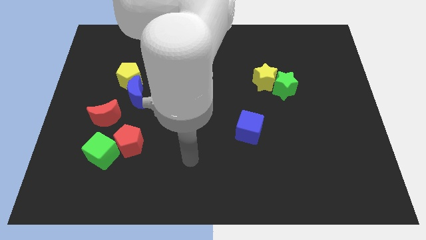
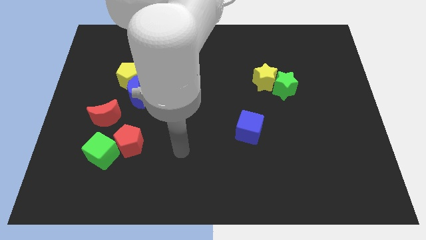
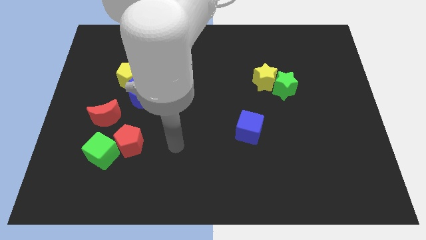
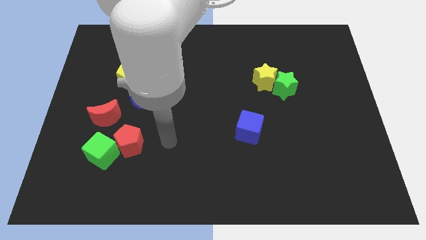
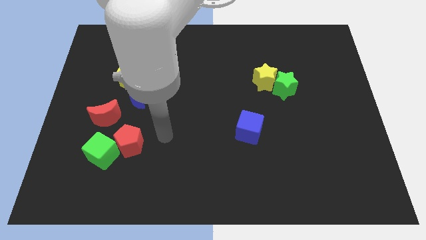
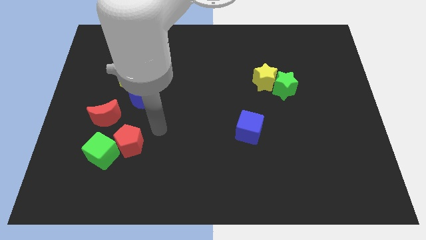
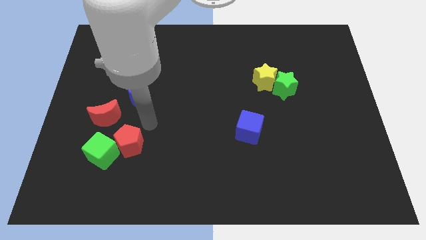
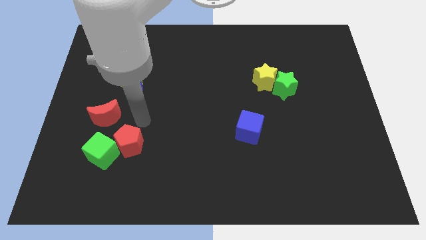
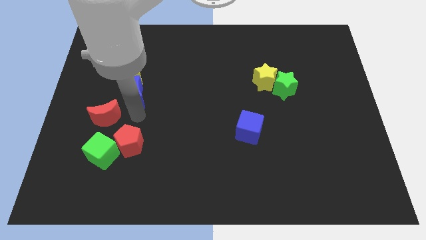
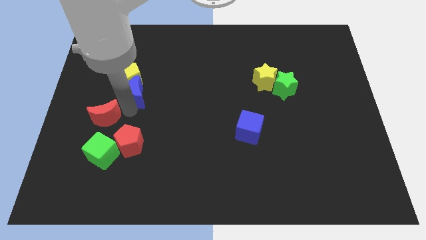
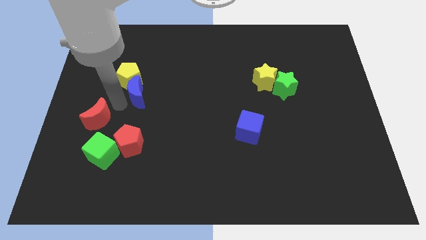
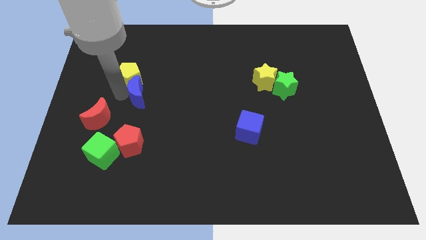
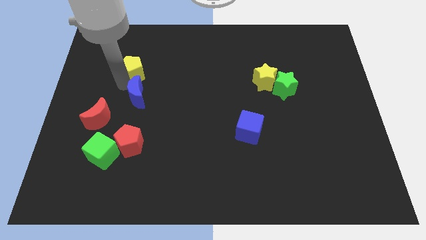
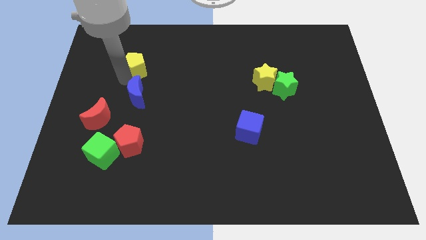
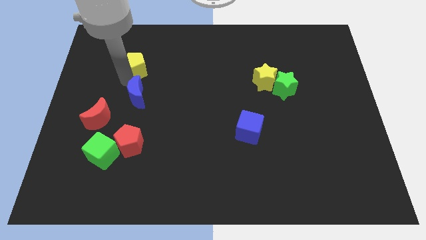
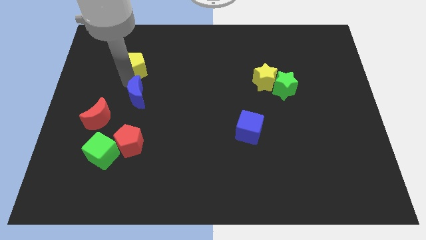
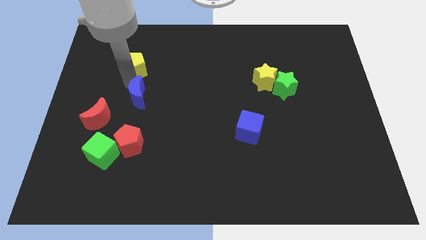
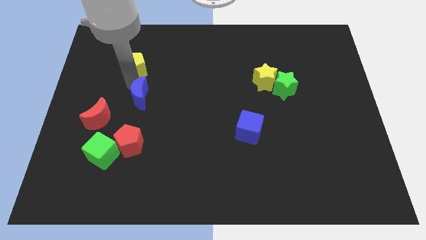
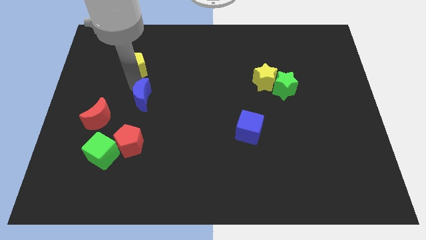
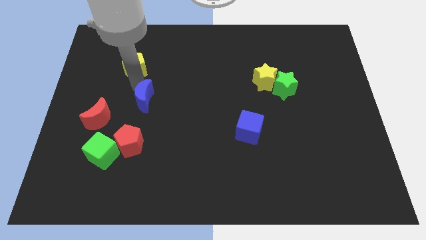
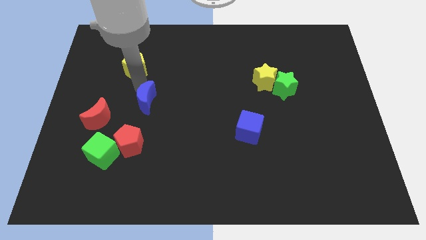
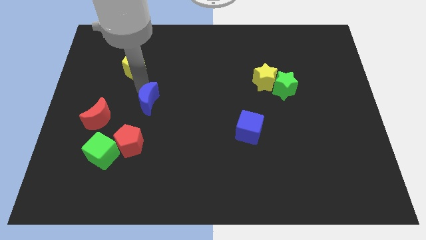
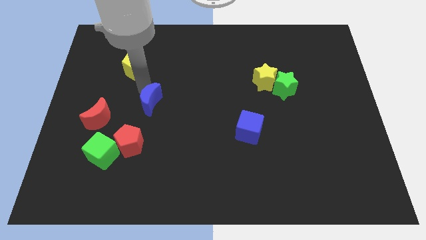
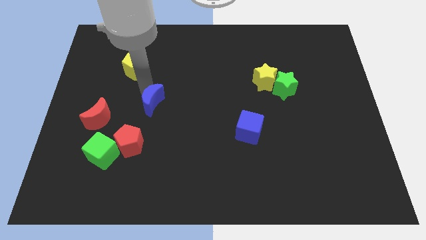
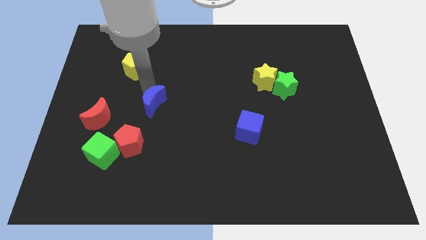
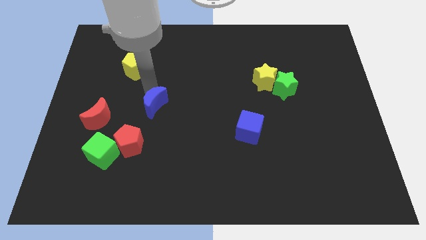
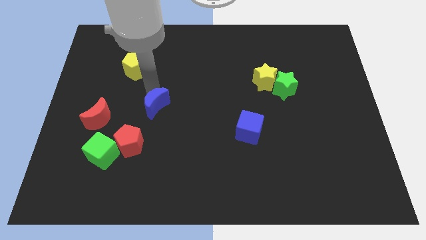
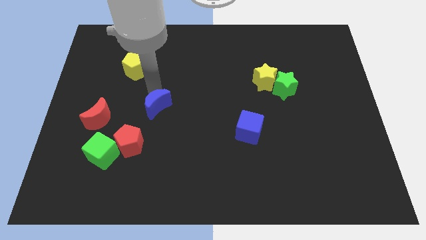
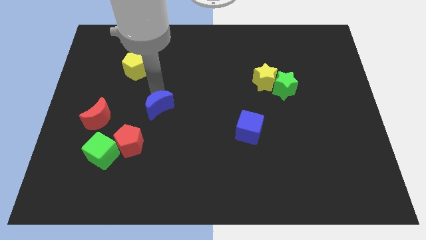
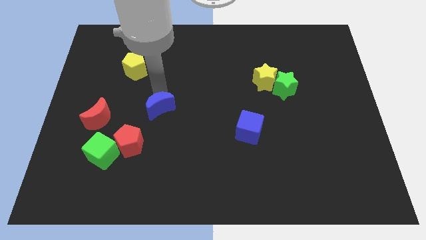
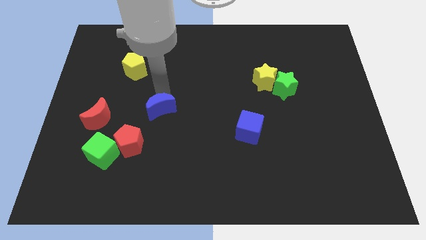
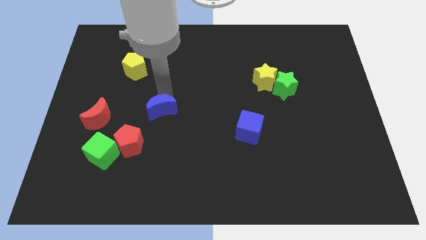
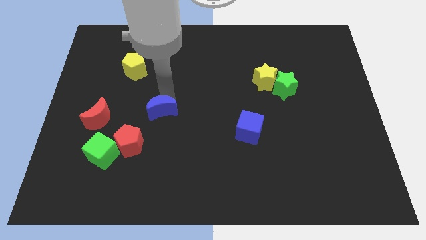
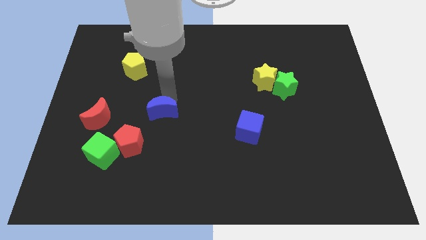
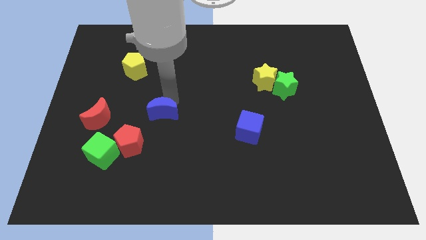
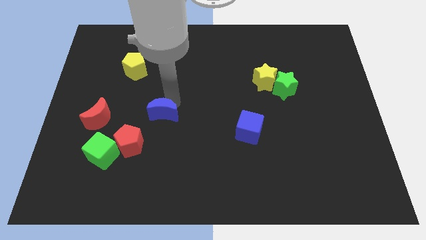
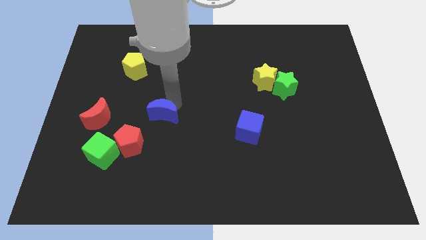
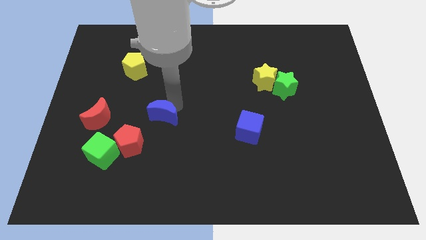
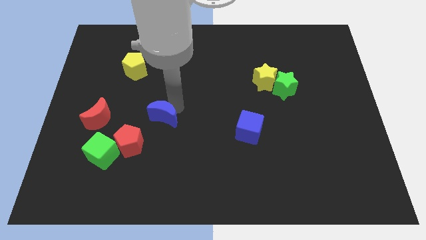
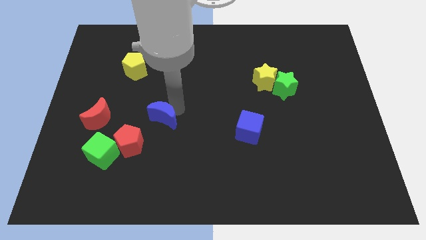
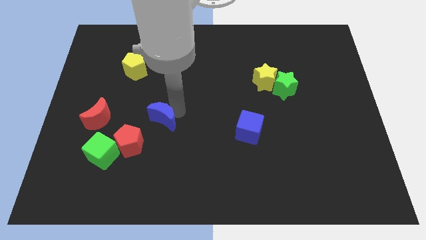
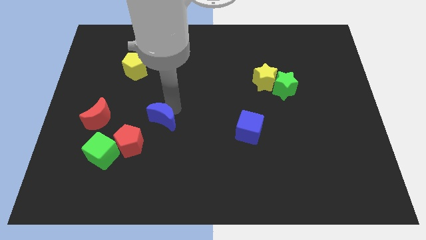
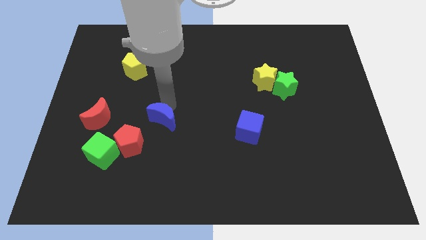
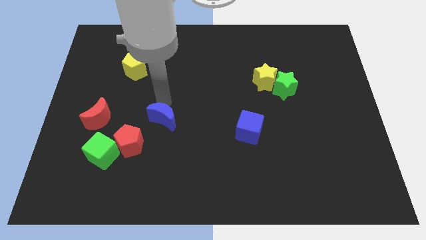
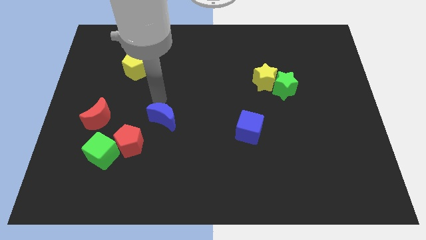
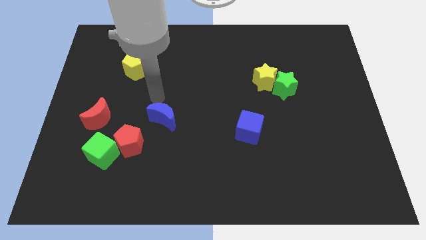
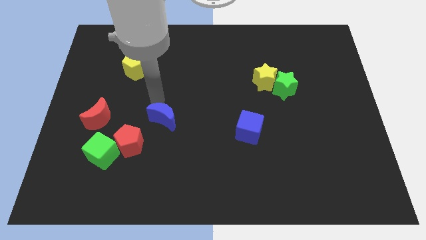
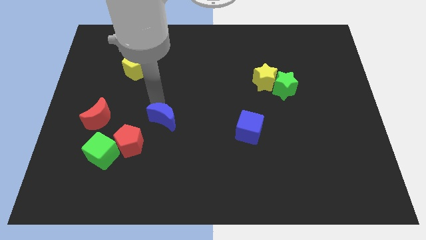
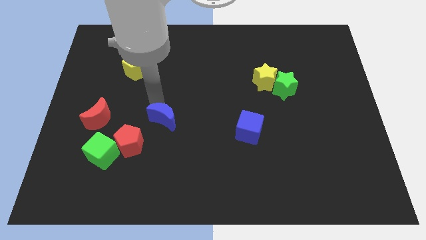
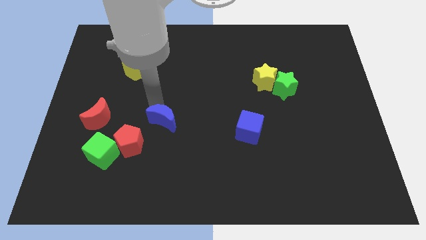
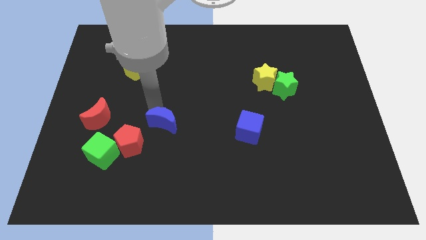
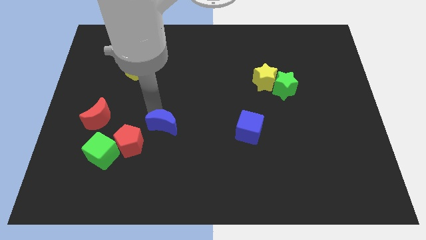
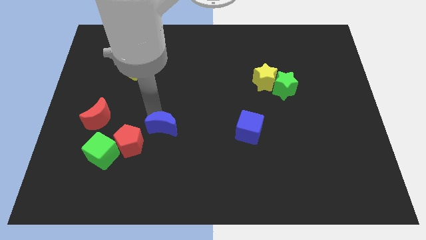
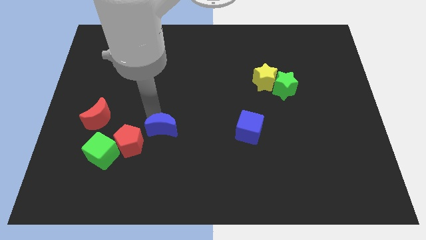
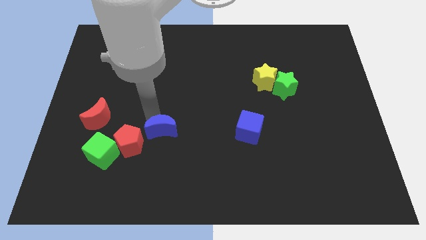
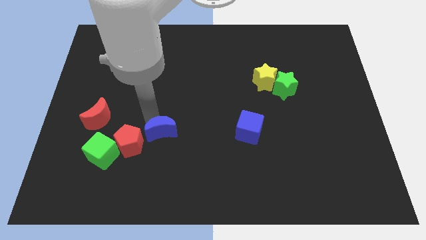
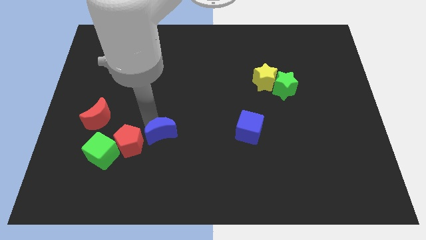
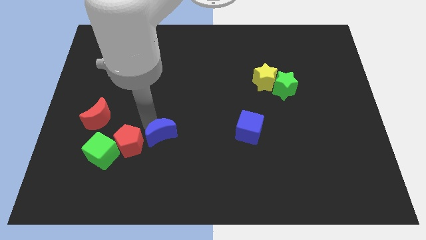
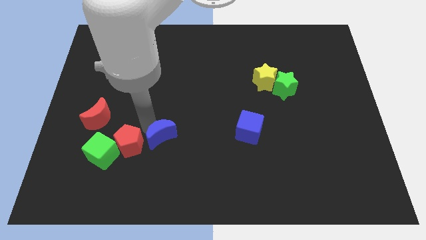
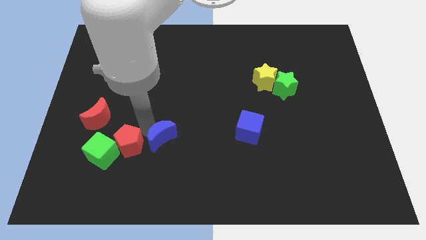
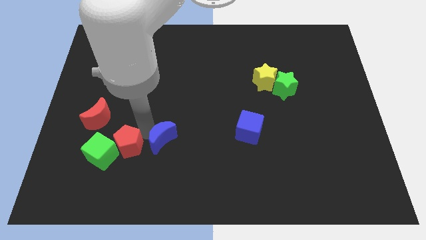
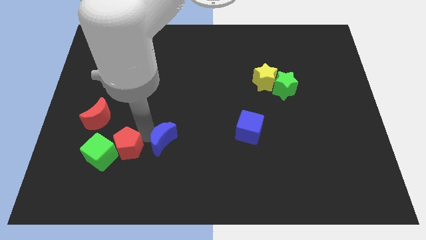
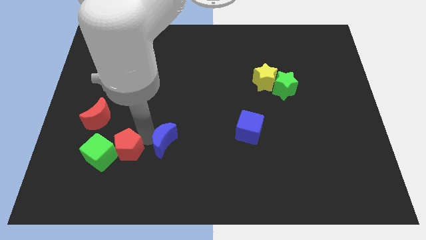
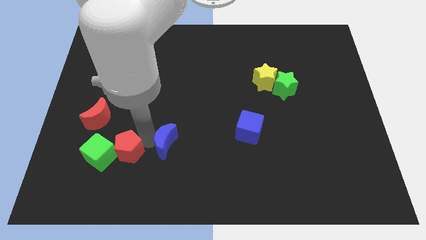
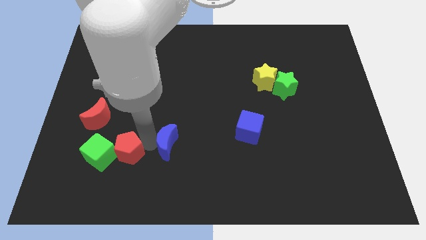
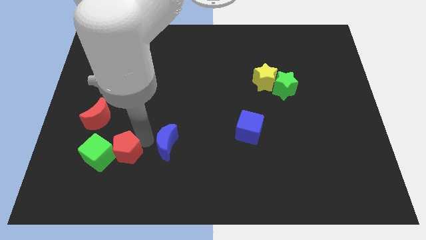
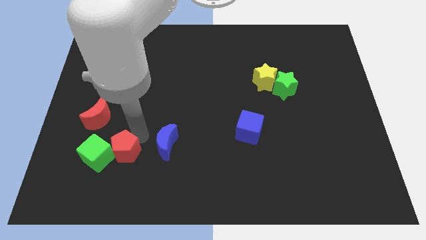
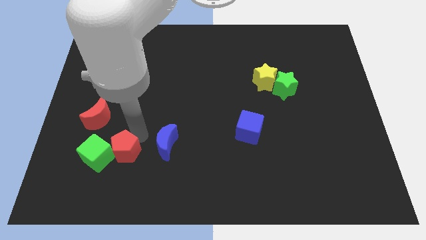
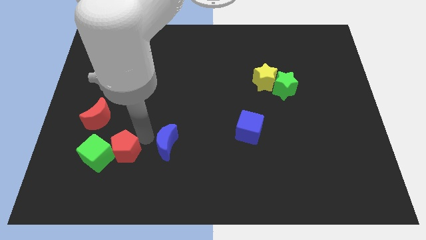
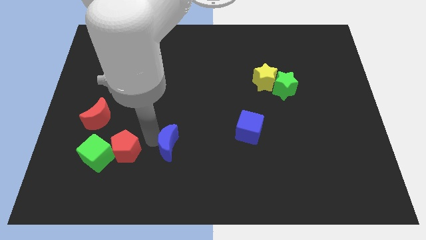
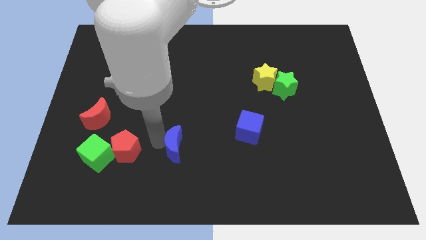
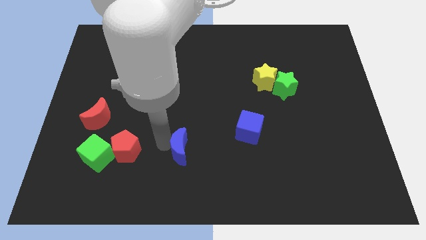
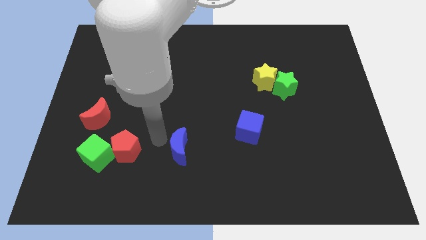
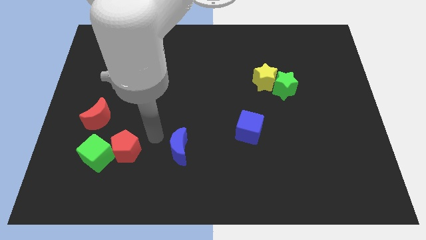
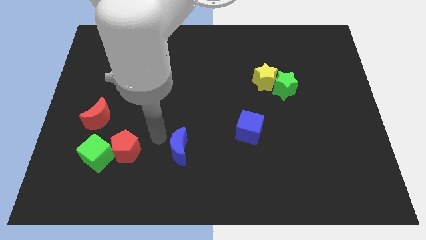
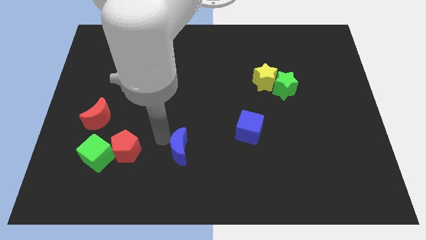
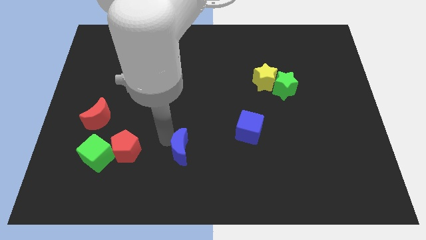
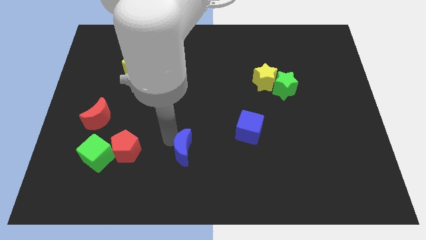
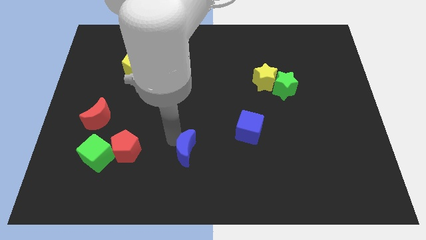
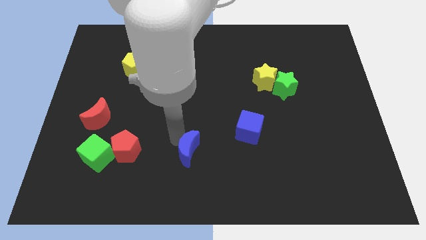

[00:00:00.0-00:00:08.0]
slide the blue moon downwards and right
